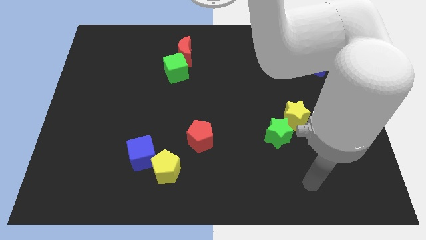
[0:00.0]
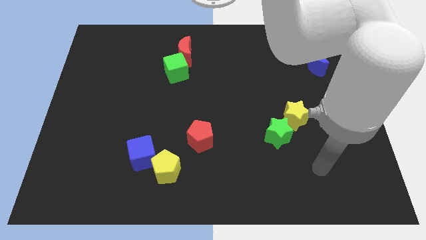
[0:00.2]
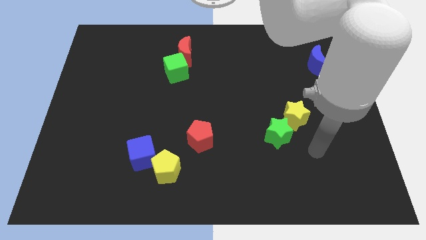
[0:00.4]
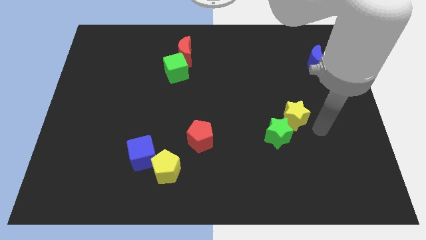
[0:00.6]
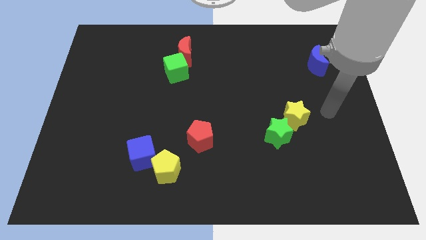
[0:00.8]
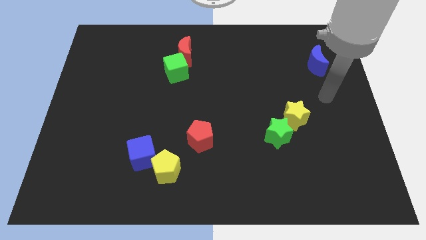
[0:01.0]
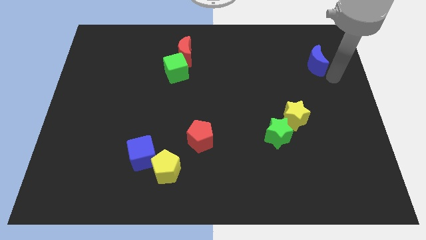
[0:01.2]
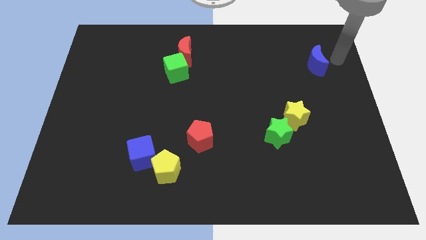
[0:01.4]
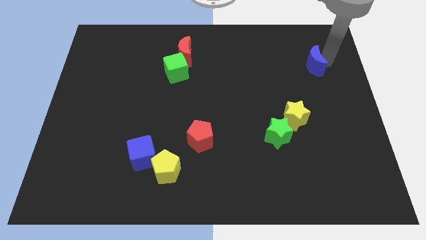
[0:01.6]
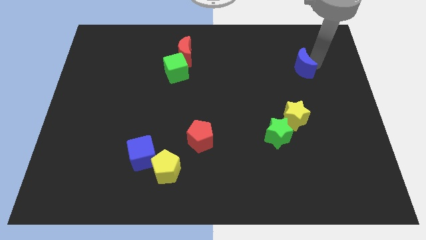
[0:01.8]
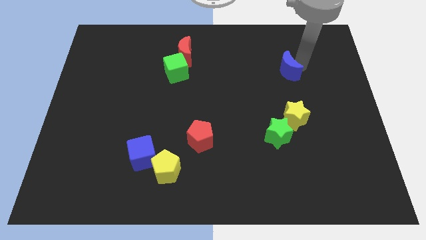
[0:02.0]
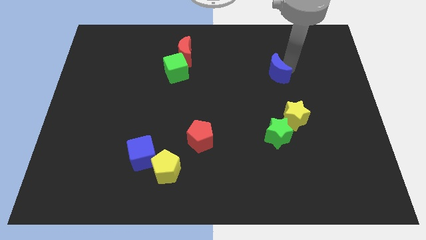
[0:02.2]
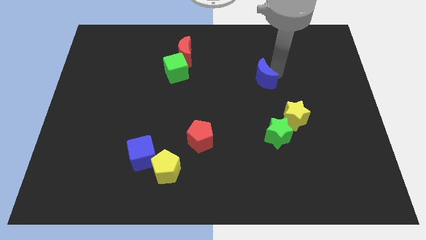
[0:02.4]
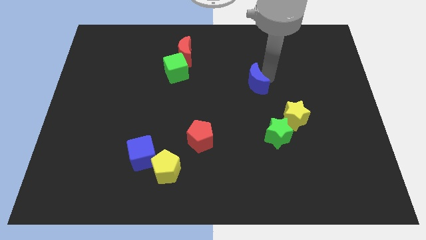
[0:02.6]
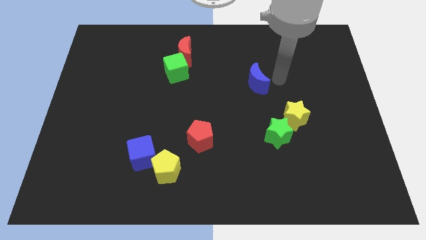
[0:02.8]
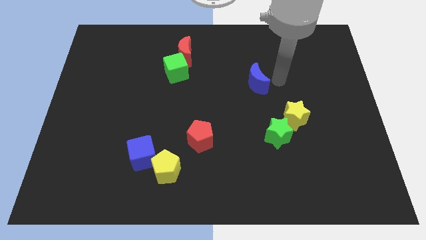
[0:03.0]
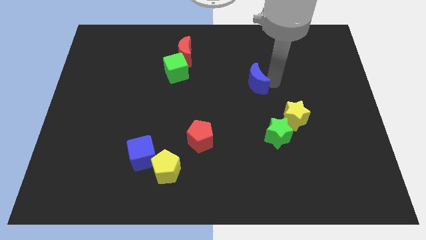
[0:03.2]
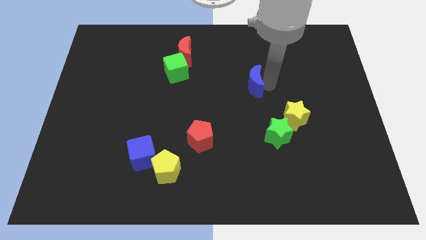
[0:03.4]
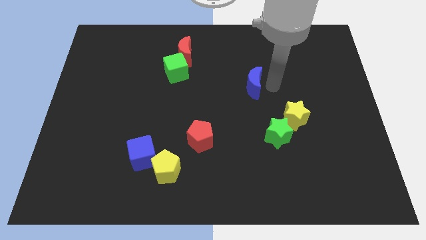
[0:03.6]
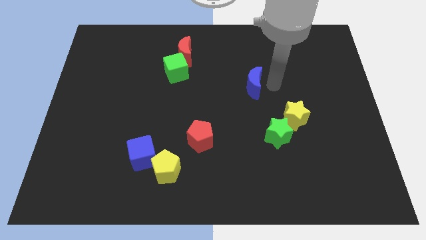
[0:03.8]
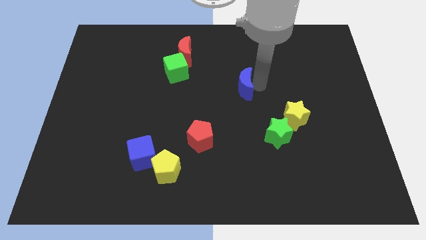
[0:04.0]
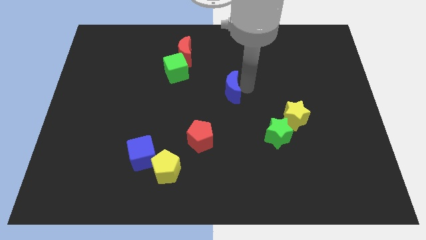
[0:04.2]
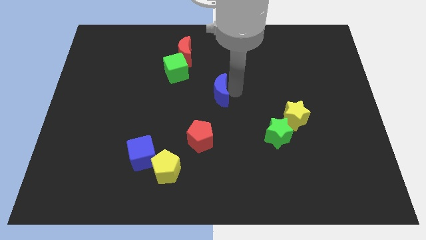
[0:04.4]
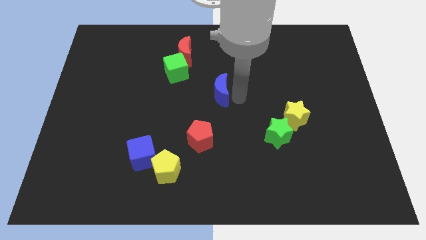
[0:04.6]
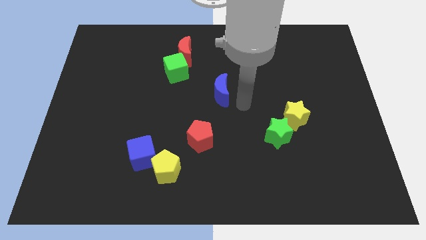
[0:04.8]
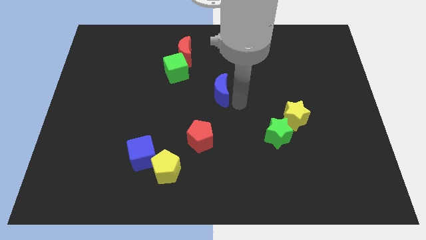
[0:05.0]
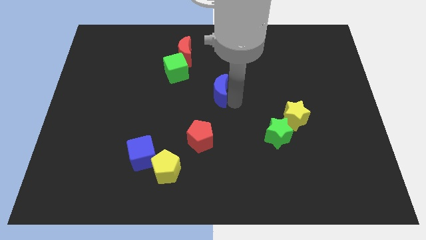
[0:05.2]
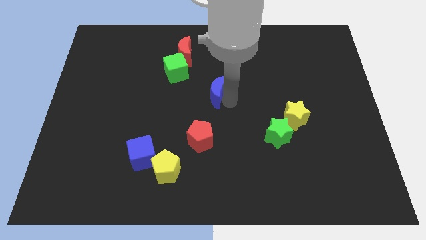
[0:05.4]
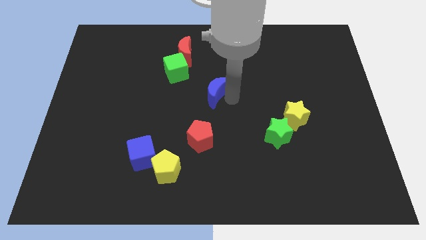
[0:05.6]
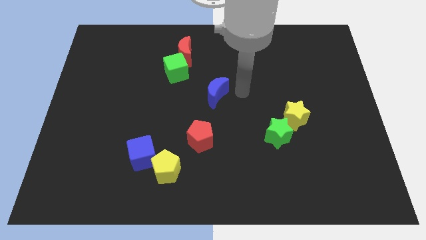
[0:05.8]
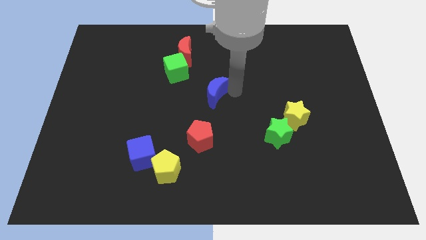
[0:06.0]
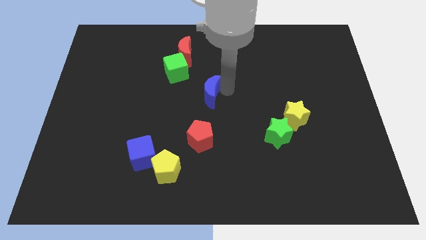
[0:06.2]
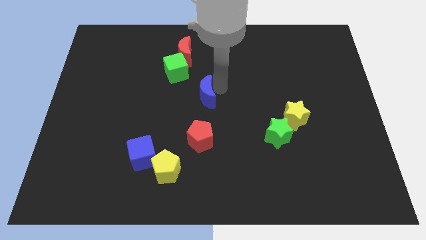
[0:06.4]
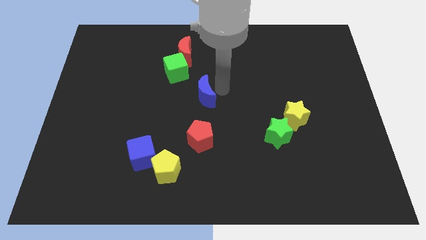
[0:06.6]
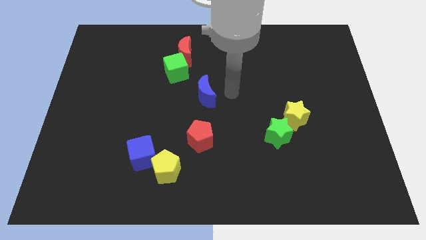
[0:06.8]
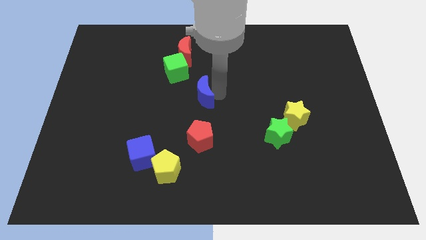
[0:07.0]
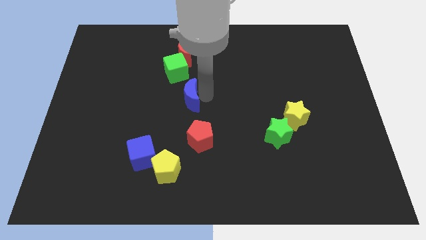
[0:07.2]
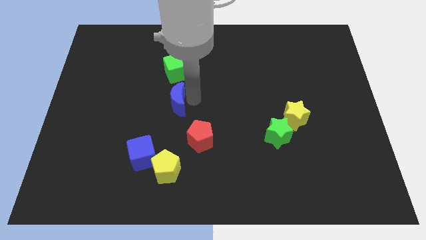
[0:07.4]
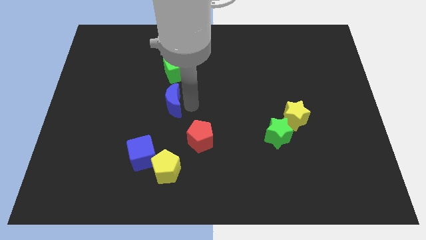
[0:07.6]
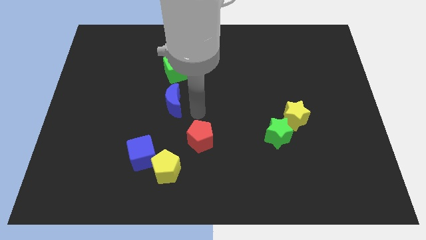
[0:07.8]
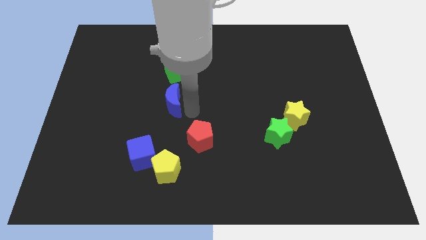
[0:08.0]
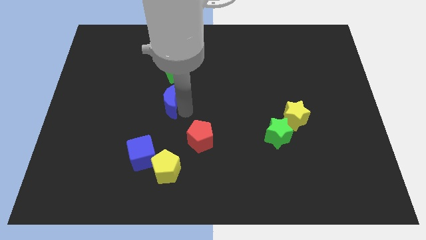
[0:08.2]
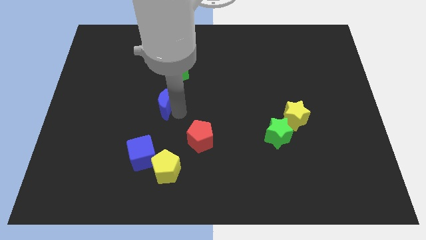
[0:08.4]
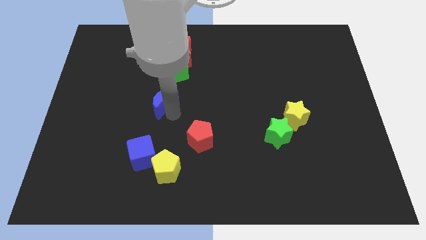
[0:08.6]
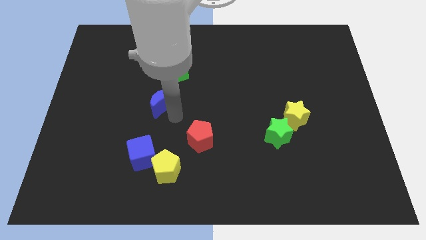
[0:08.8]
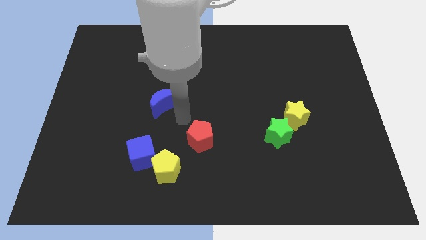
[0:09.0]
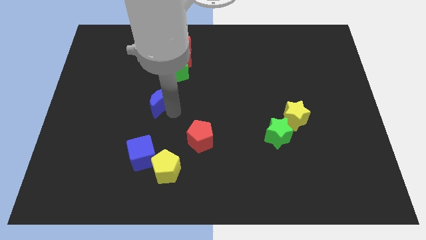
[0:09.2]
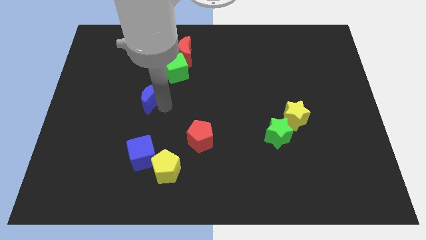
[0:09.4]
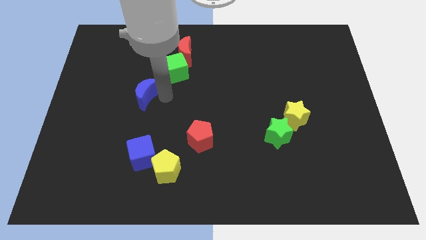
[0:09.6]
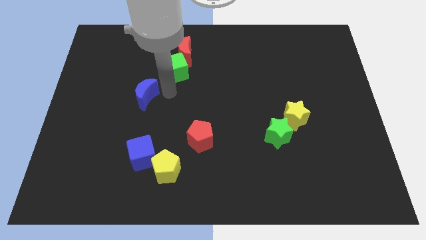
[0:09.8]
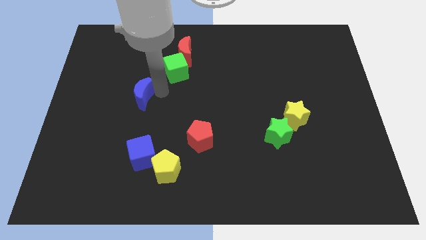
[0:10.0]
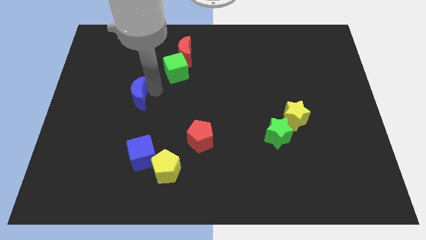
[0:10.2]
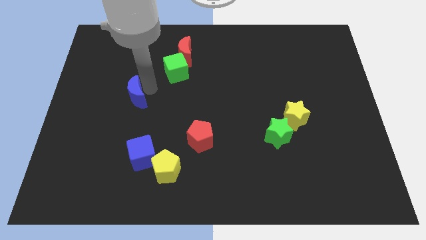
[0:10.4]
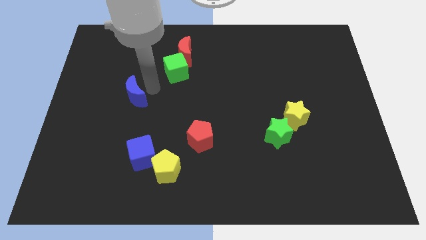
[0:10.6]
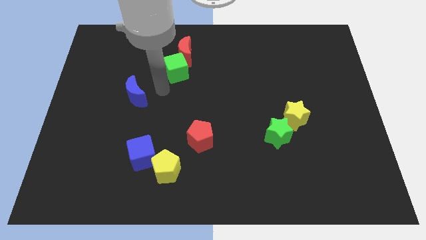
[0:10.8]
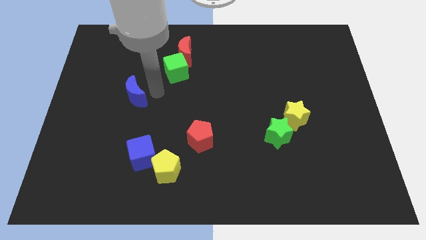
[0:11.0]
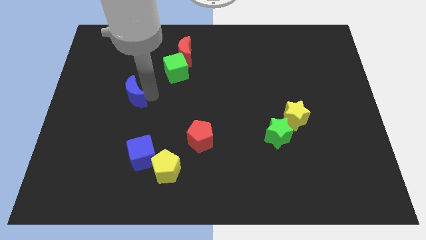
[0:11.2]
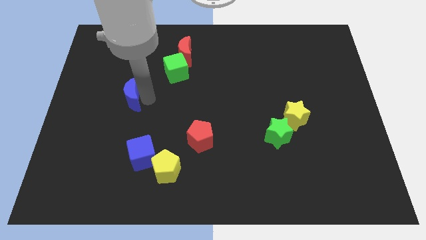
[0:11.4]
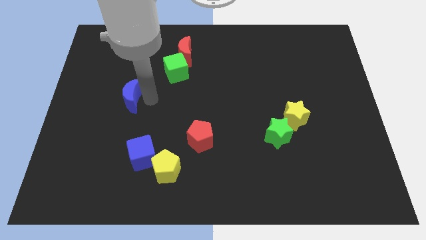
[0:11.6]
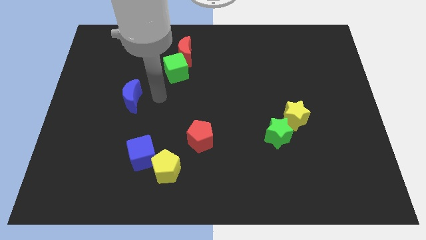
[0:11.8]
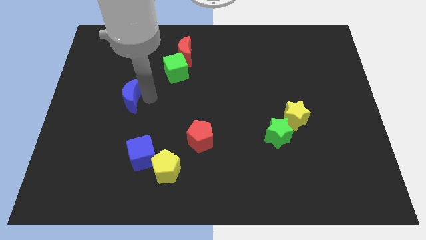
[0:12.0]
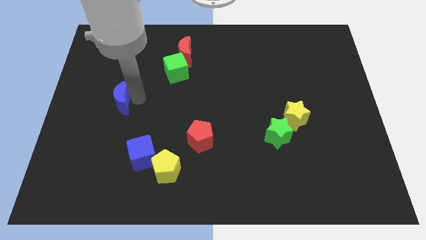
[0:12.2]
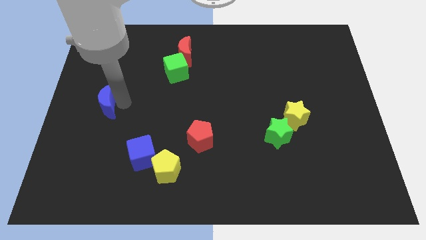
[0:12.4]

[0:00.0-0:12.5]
move the blue moon to the left side

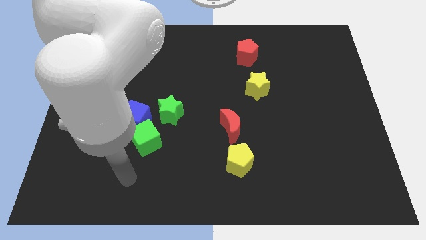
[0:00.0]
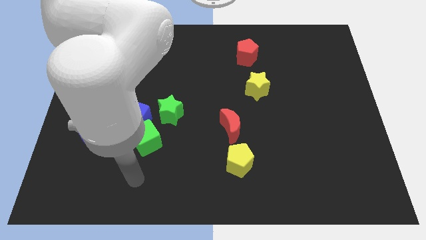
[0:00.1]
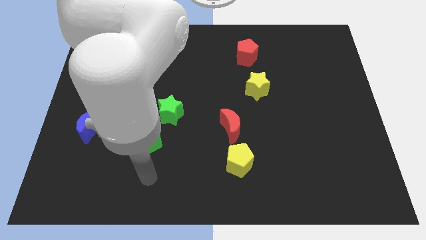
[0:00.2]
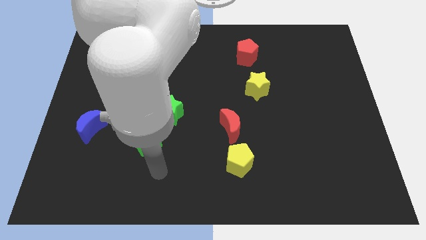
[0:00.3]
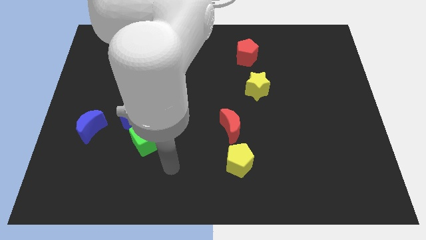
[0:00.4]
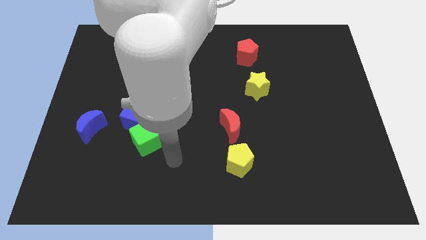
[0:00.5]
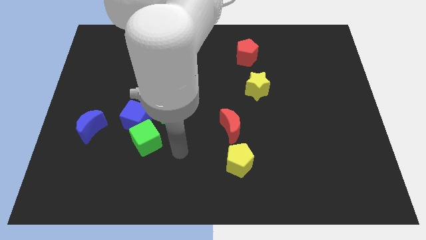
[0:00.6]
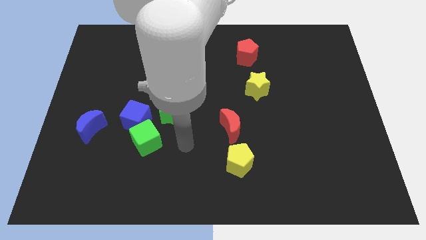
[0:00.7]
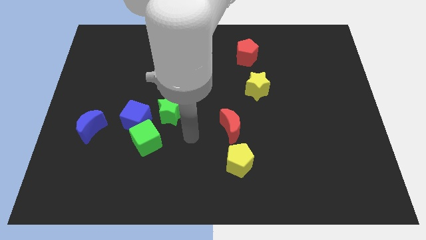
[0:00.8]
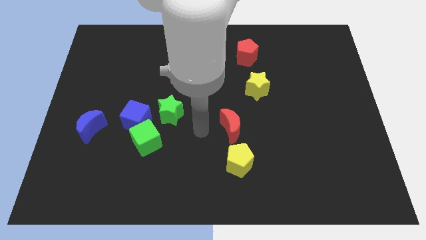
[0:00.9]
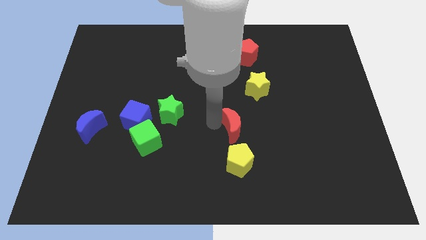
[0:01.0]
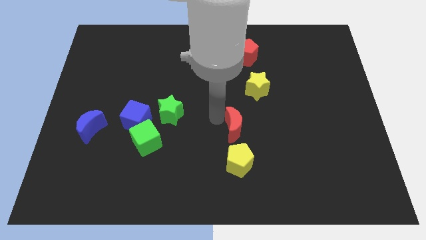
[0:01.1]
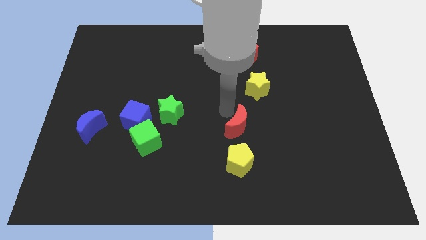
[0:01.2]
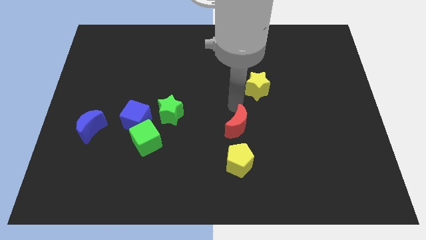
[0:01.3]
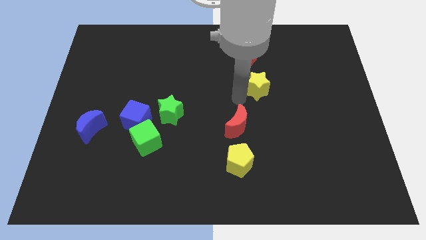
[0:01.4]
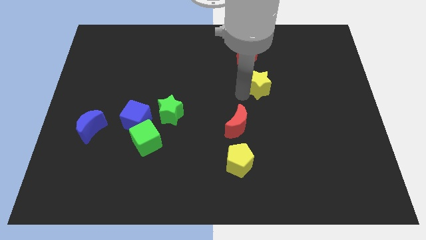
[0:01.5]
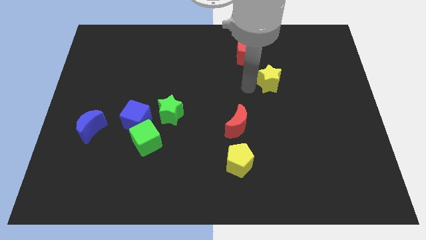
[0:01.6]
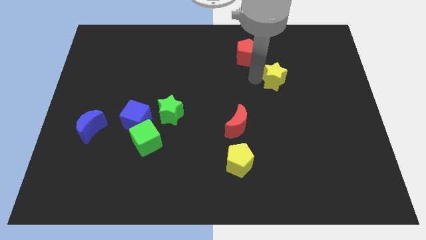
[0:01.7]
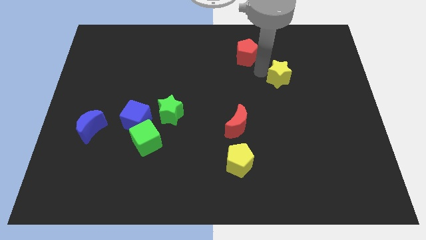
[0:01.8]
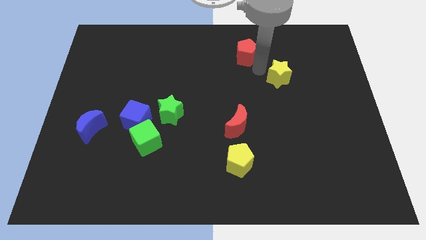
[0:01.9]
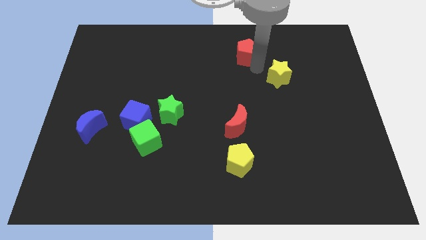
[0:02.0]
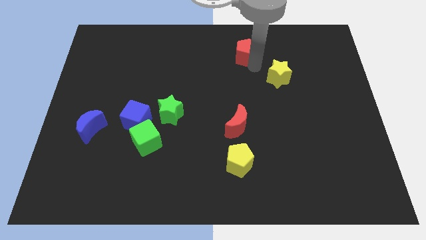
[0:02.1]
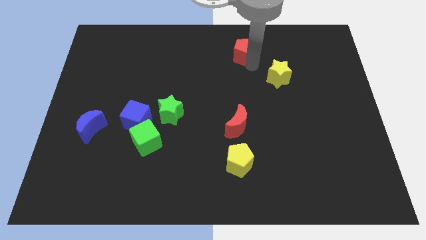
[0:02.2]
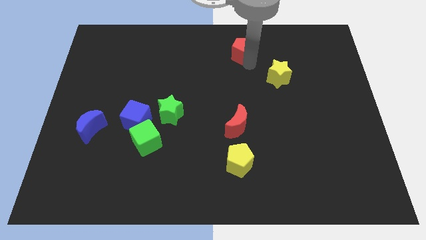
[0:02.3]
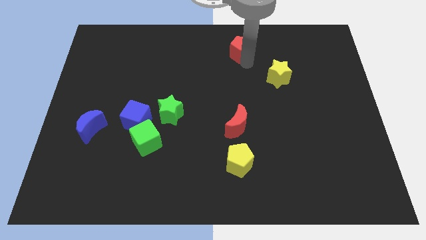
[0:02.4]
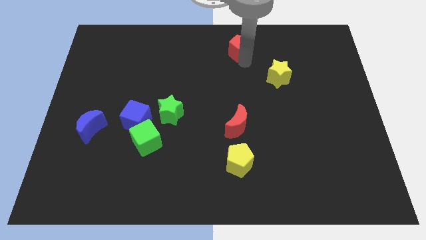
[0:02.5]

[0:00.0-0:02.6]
slide the red pentagon to the top
